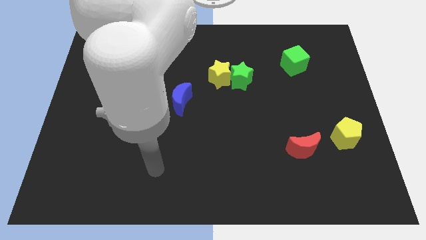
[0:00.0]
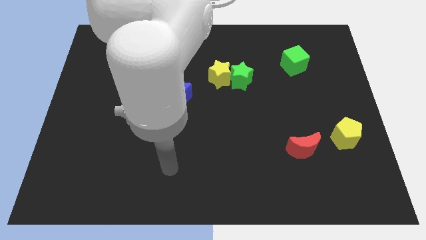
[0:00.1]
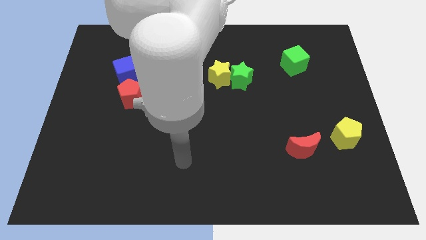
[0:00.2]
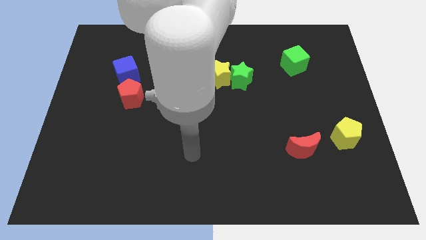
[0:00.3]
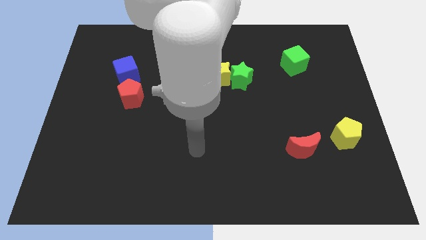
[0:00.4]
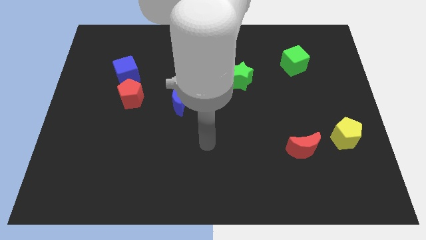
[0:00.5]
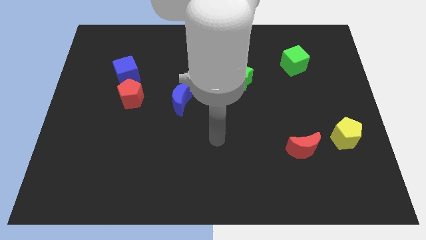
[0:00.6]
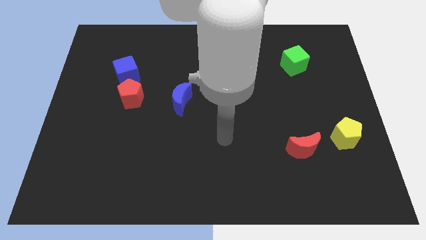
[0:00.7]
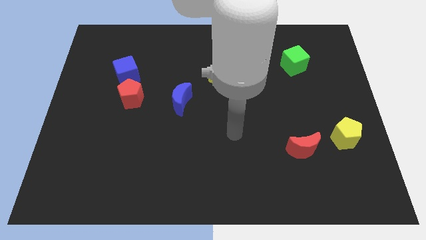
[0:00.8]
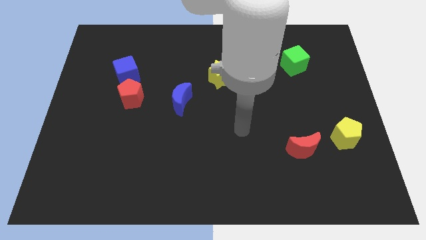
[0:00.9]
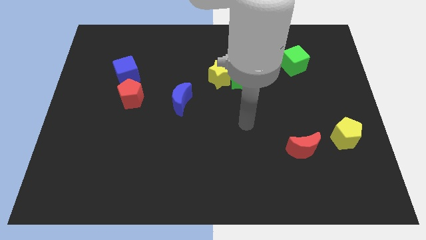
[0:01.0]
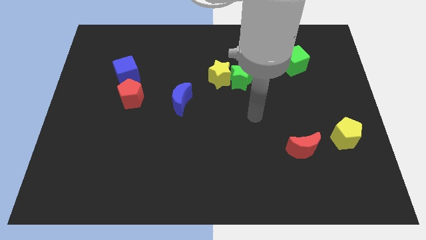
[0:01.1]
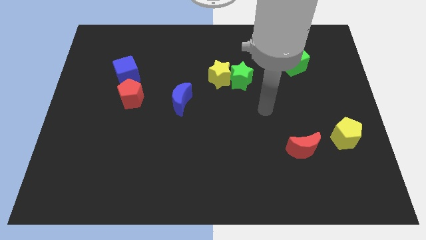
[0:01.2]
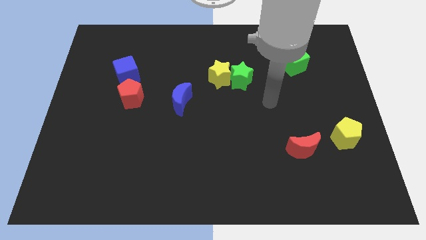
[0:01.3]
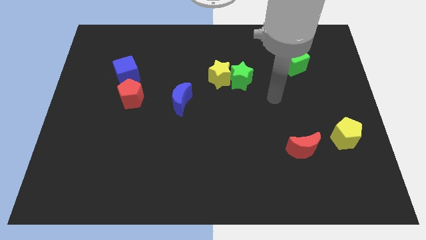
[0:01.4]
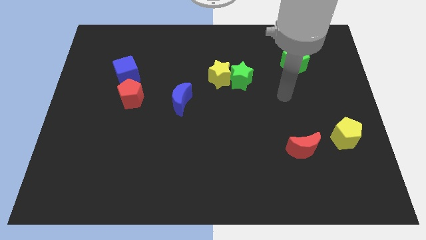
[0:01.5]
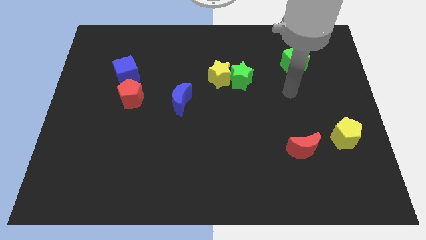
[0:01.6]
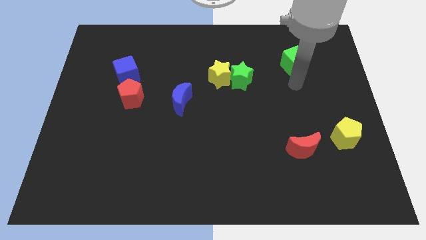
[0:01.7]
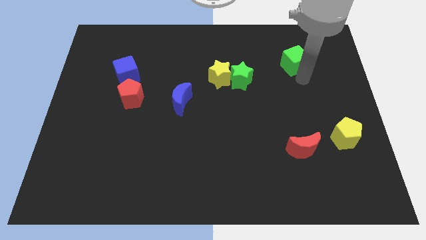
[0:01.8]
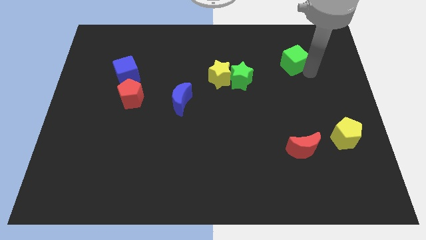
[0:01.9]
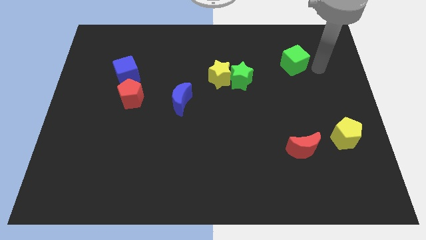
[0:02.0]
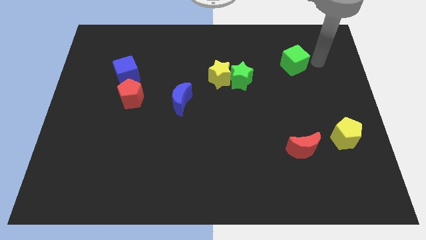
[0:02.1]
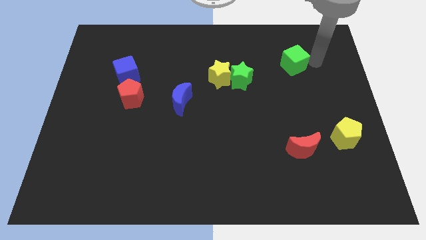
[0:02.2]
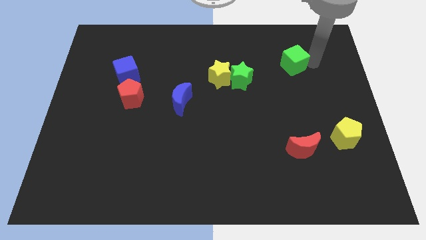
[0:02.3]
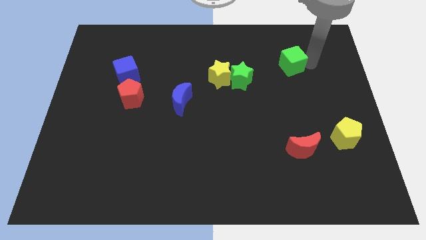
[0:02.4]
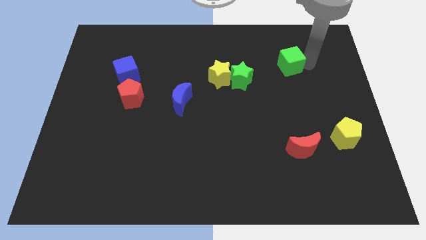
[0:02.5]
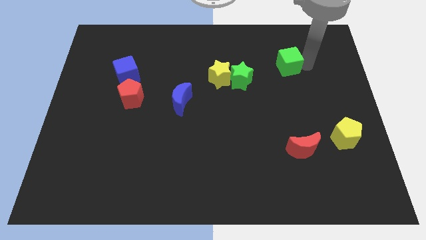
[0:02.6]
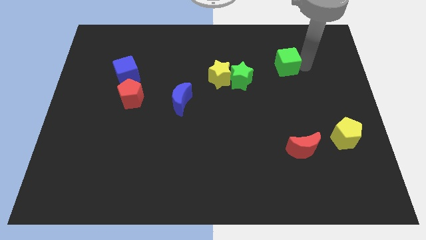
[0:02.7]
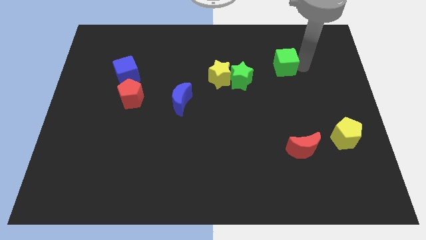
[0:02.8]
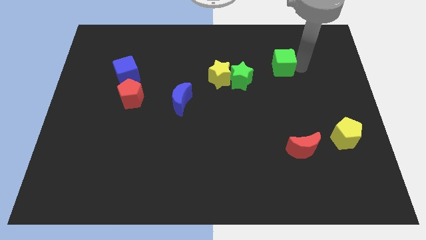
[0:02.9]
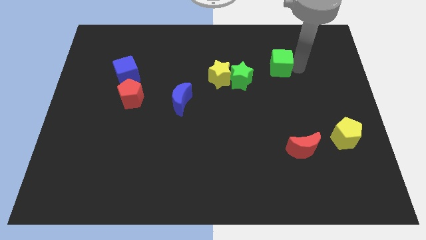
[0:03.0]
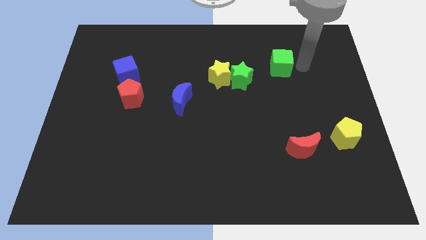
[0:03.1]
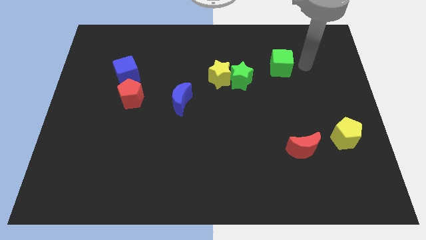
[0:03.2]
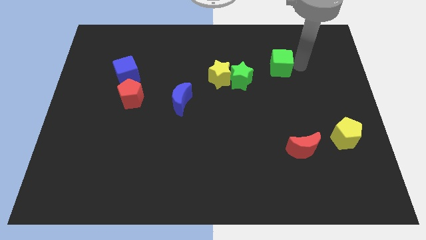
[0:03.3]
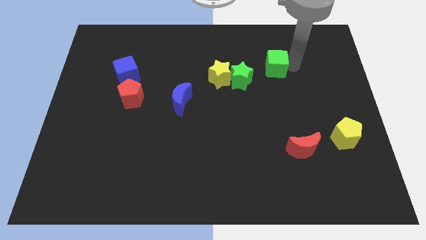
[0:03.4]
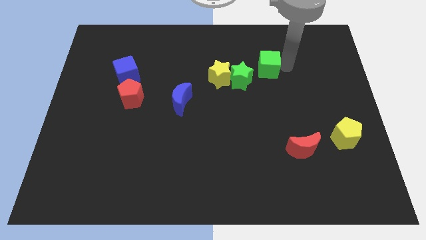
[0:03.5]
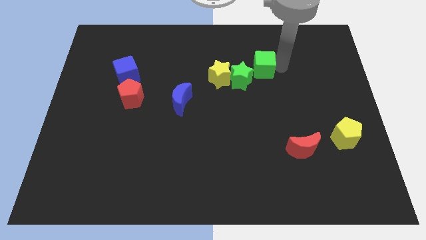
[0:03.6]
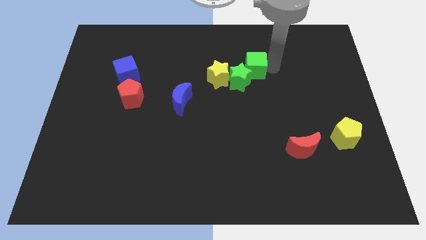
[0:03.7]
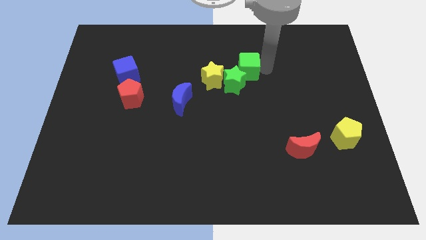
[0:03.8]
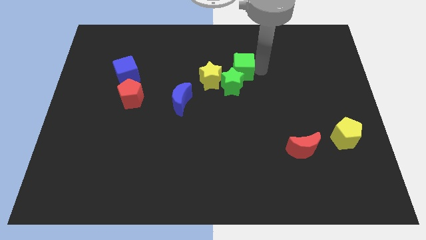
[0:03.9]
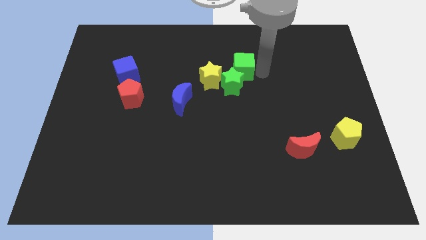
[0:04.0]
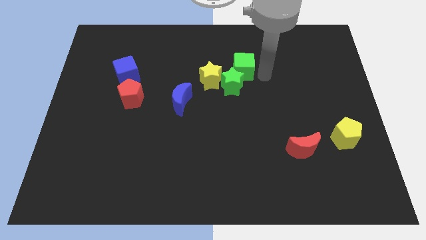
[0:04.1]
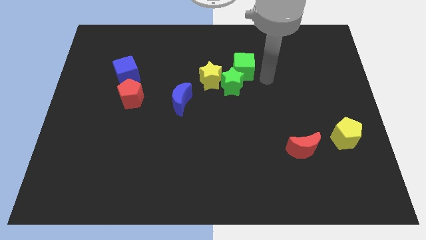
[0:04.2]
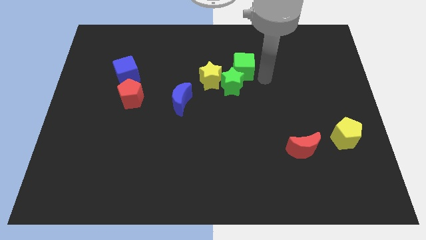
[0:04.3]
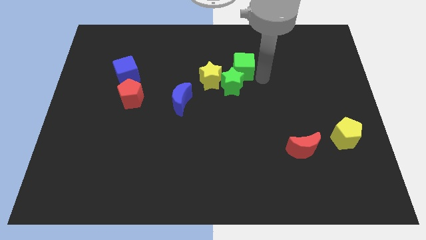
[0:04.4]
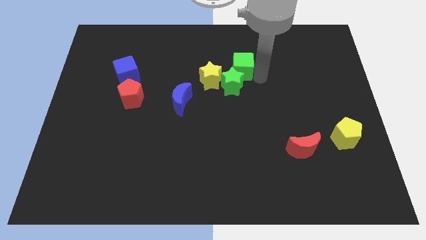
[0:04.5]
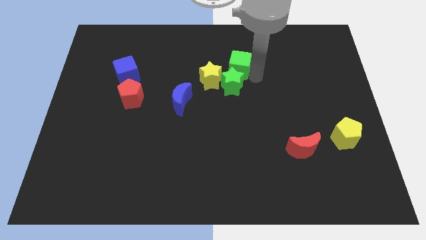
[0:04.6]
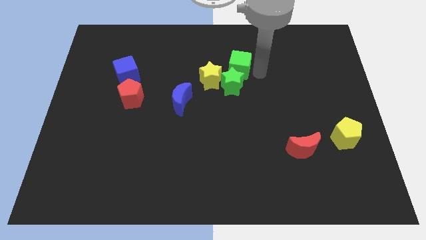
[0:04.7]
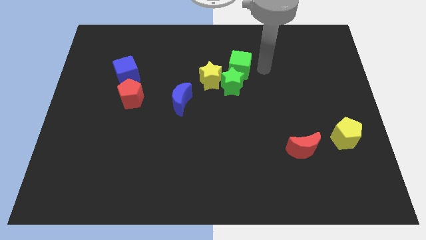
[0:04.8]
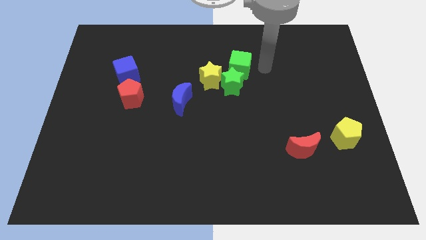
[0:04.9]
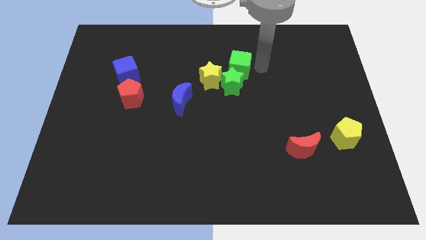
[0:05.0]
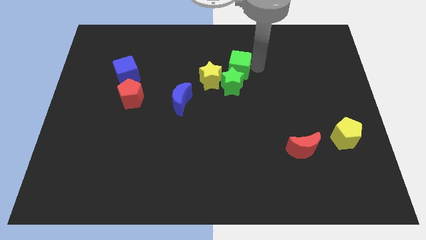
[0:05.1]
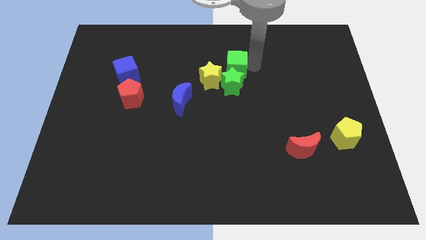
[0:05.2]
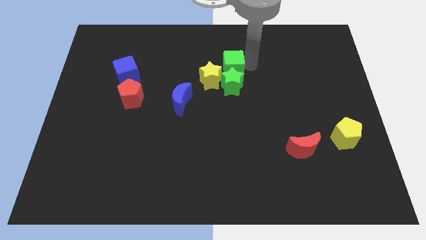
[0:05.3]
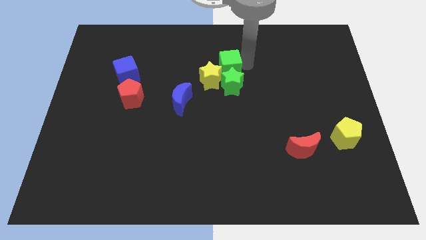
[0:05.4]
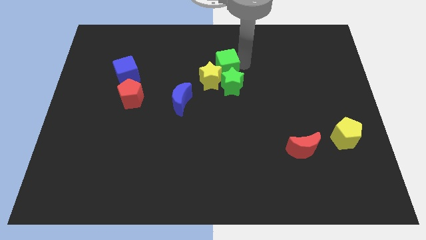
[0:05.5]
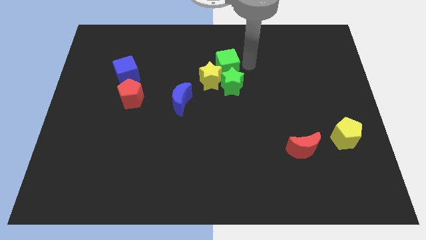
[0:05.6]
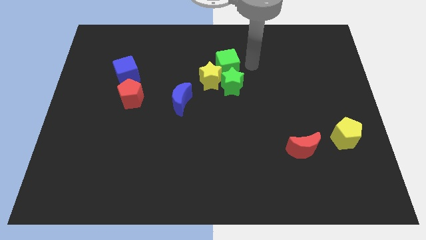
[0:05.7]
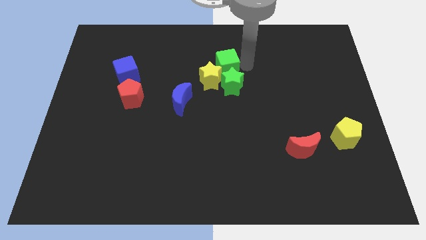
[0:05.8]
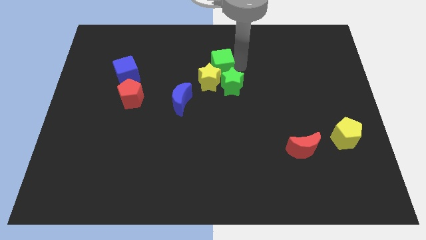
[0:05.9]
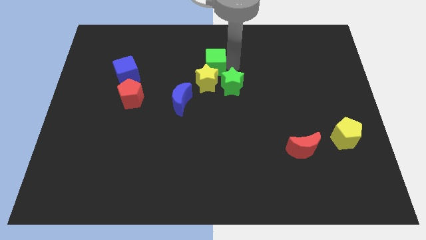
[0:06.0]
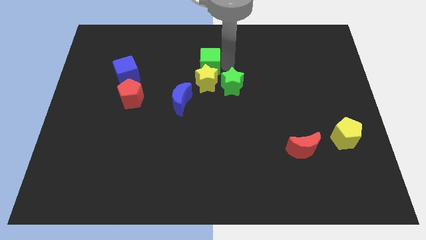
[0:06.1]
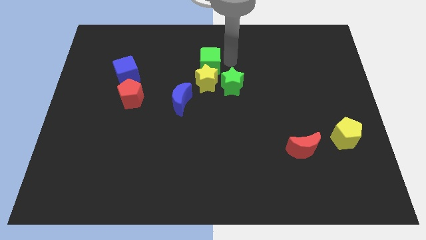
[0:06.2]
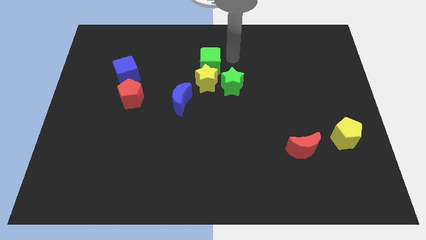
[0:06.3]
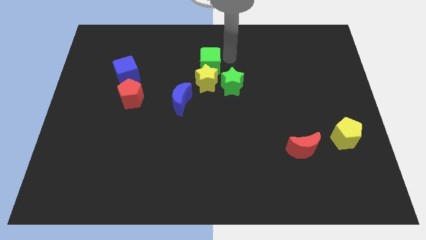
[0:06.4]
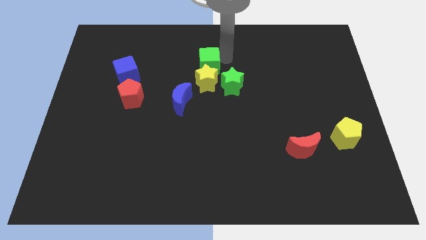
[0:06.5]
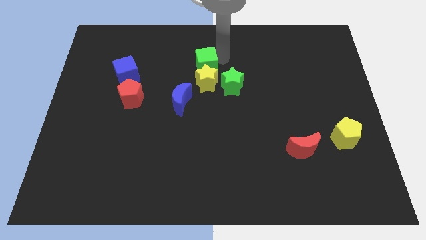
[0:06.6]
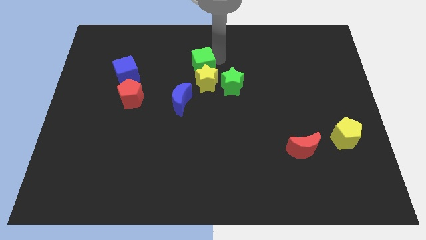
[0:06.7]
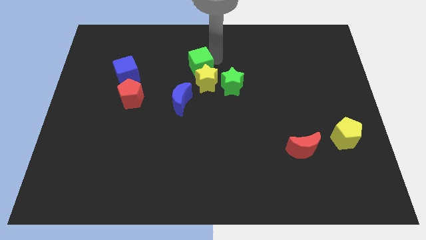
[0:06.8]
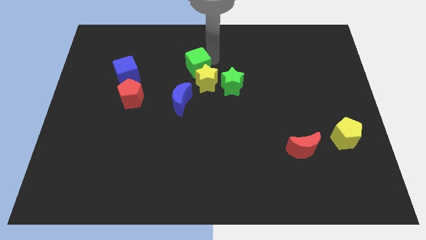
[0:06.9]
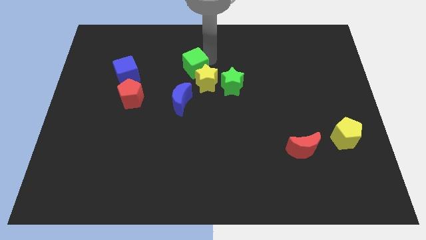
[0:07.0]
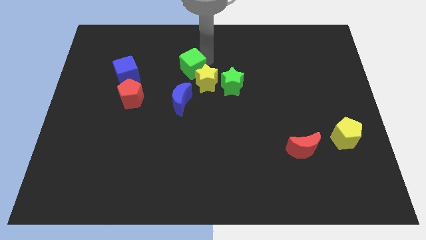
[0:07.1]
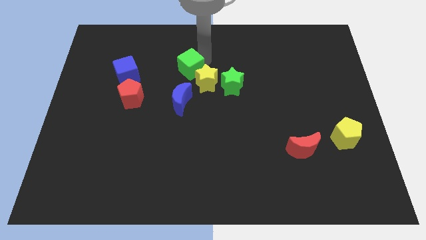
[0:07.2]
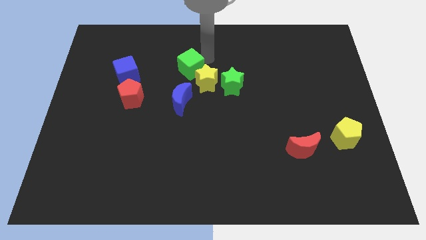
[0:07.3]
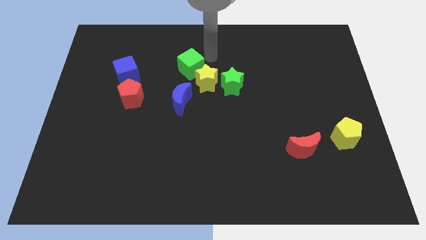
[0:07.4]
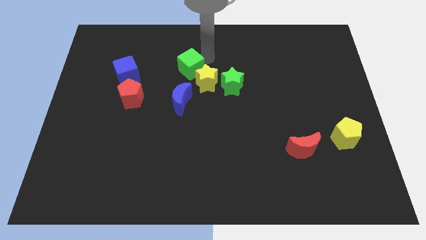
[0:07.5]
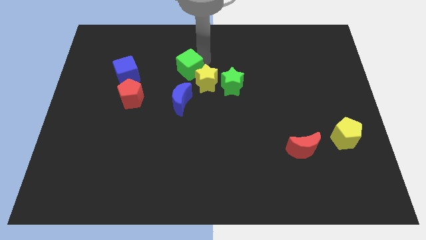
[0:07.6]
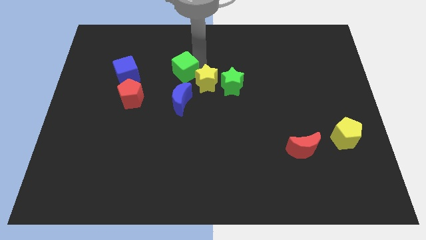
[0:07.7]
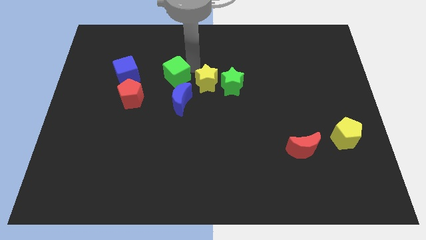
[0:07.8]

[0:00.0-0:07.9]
slide the green cube diagonally up and to the right of the red pentagon
